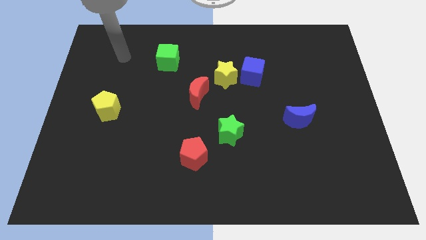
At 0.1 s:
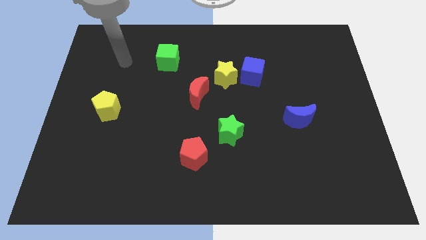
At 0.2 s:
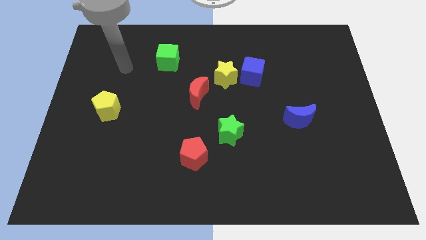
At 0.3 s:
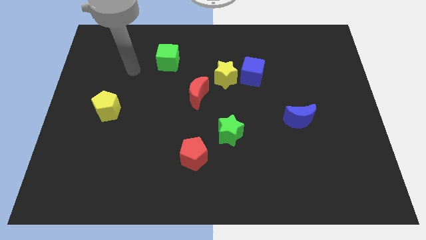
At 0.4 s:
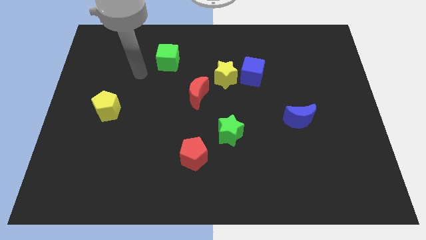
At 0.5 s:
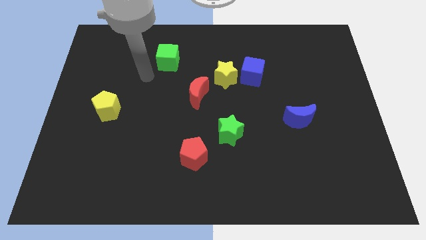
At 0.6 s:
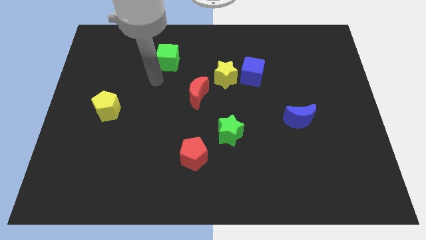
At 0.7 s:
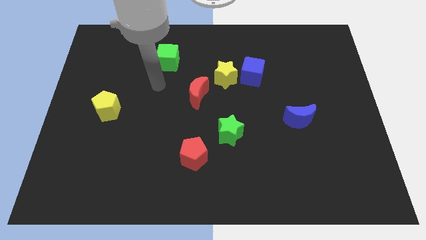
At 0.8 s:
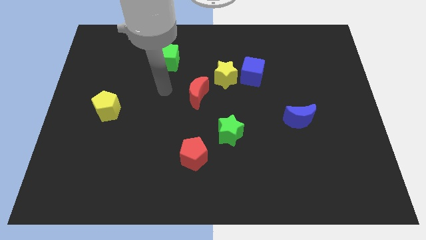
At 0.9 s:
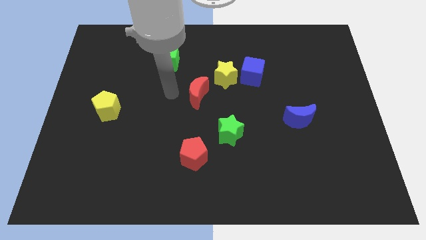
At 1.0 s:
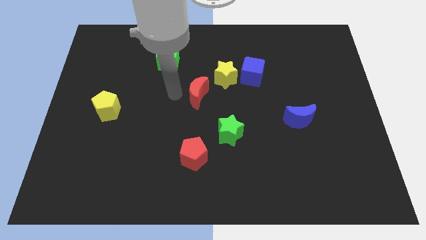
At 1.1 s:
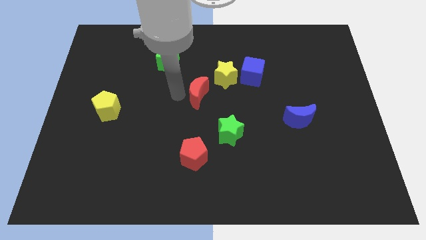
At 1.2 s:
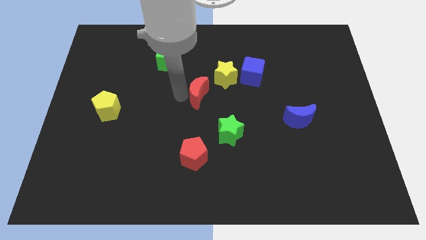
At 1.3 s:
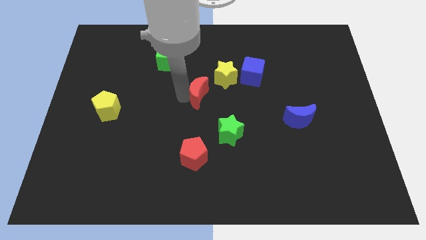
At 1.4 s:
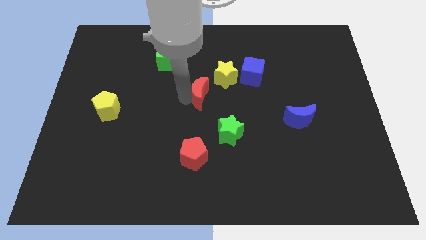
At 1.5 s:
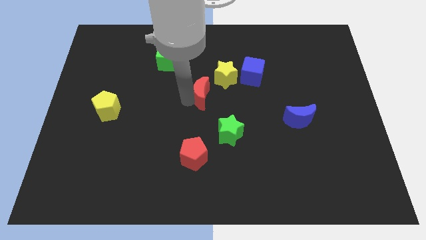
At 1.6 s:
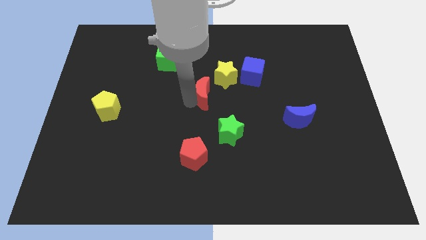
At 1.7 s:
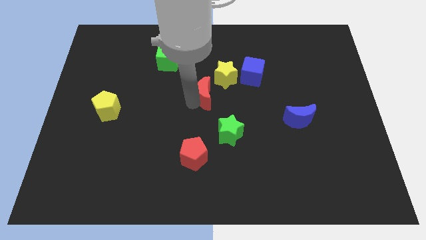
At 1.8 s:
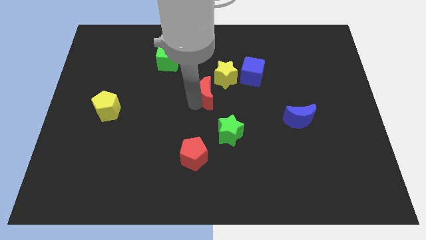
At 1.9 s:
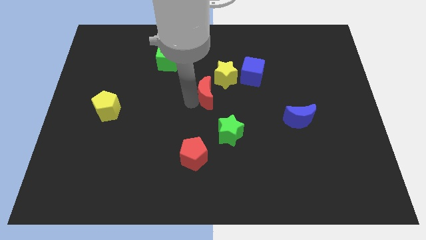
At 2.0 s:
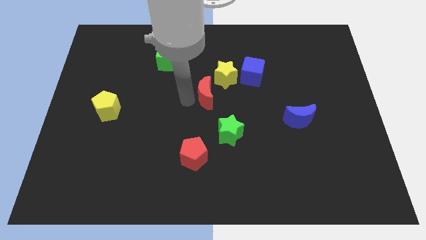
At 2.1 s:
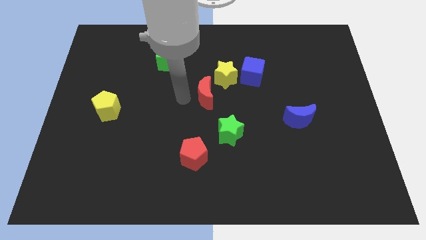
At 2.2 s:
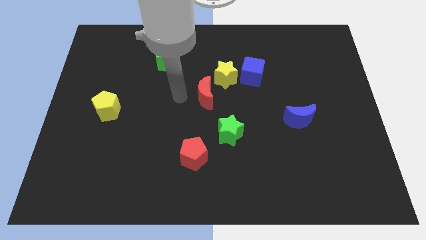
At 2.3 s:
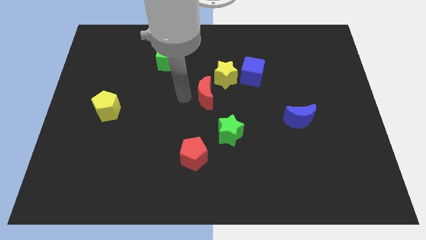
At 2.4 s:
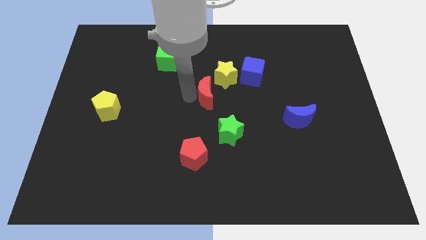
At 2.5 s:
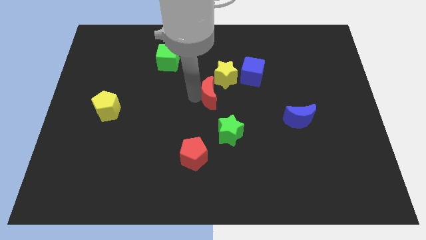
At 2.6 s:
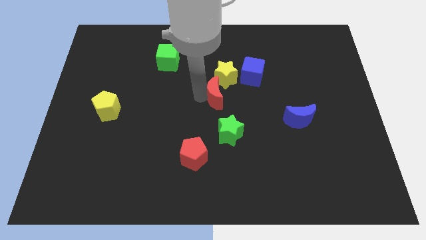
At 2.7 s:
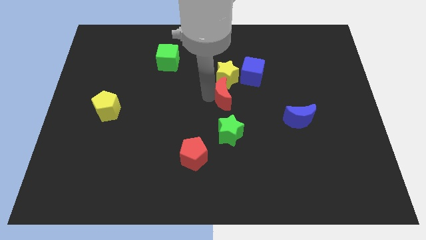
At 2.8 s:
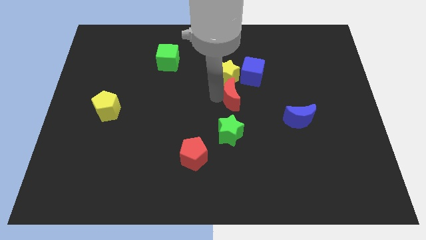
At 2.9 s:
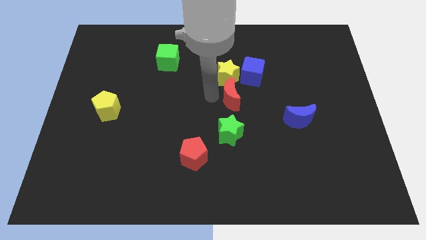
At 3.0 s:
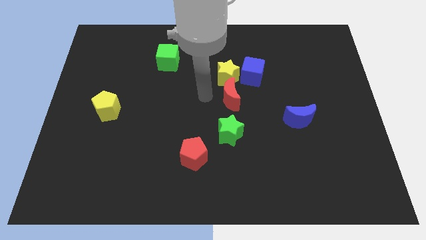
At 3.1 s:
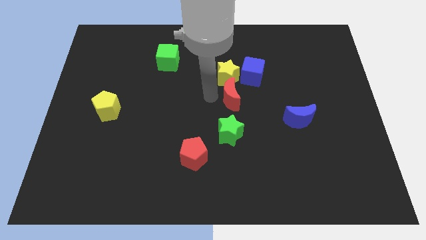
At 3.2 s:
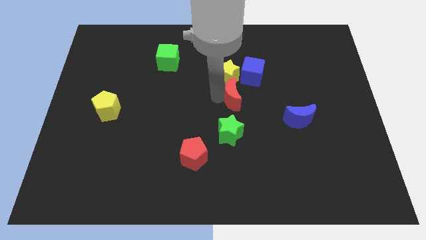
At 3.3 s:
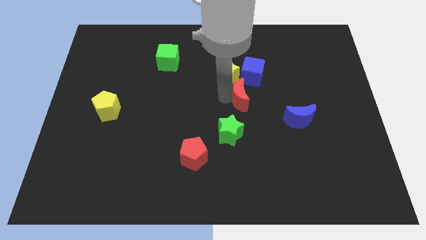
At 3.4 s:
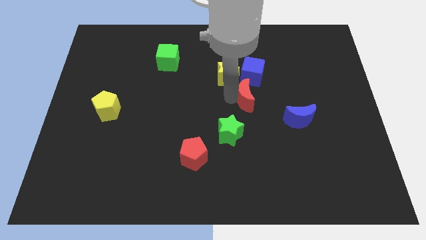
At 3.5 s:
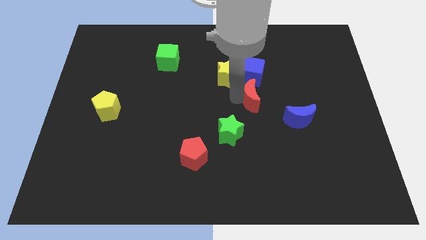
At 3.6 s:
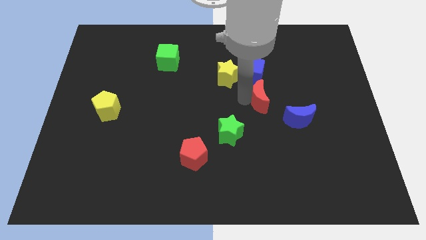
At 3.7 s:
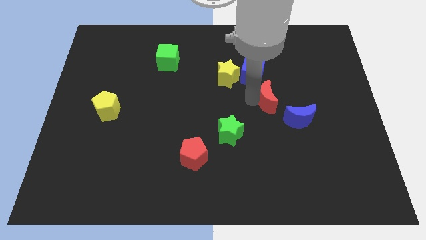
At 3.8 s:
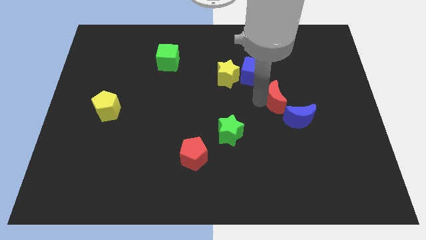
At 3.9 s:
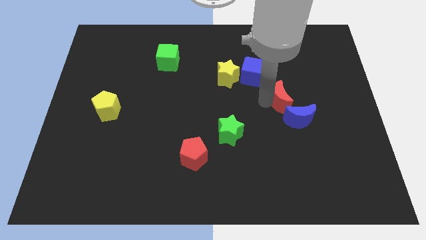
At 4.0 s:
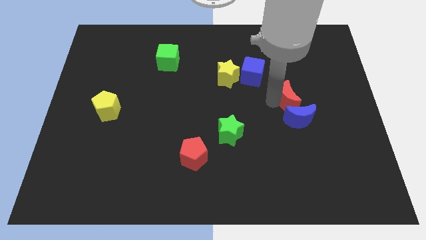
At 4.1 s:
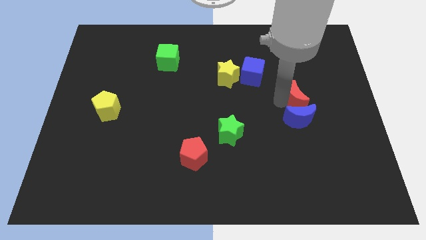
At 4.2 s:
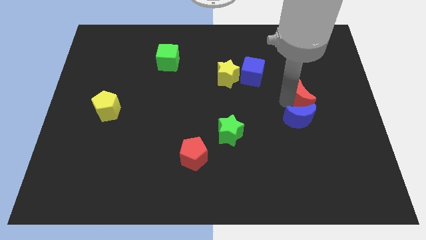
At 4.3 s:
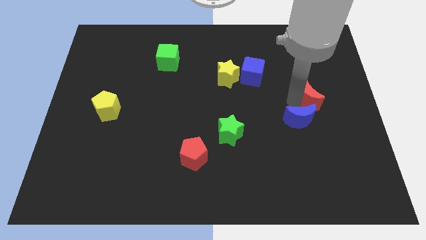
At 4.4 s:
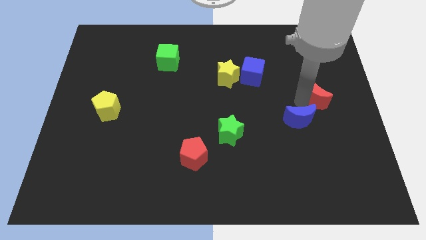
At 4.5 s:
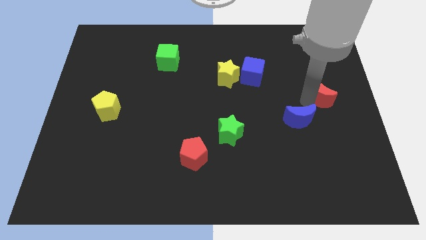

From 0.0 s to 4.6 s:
move the red moon to the right side

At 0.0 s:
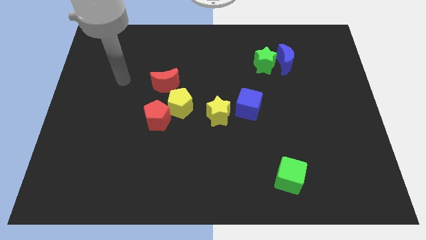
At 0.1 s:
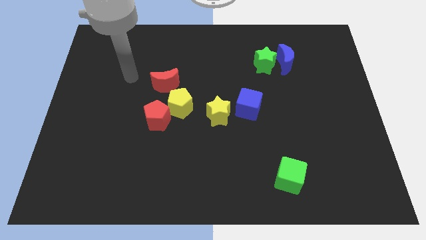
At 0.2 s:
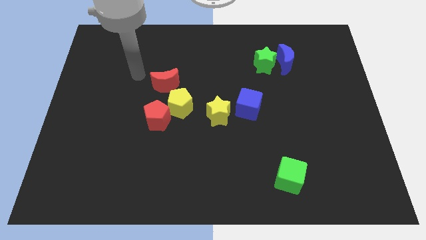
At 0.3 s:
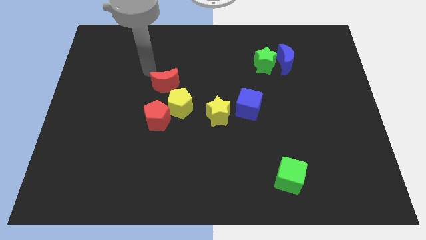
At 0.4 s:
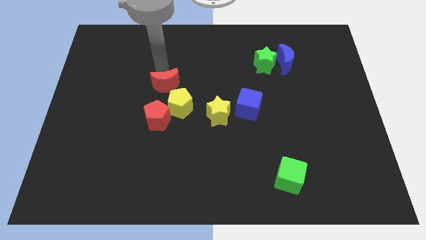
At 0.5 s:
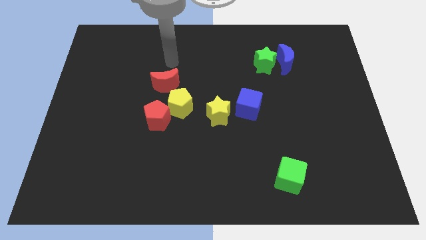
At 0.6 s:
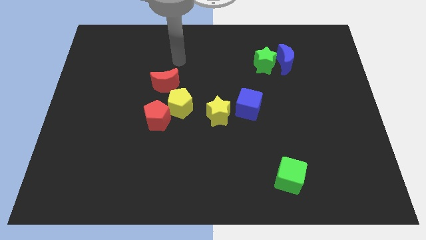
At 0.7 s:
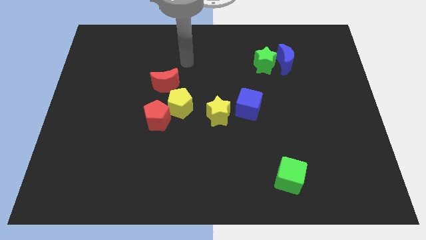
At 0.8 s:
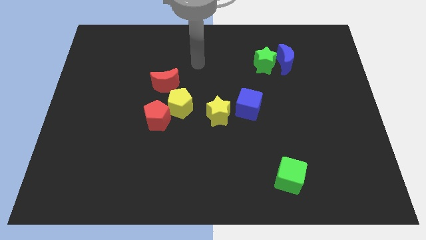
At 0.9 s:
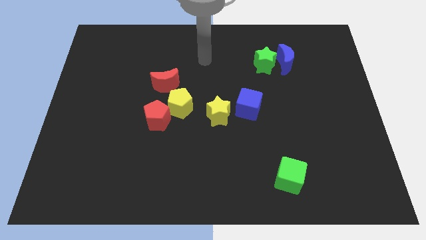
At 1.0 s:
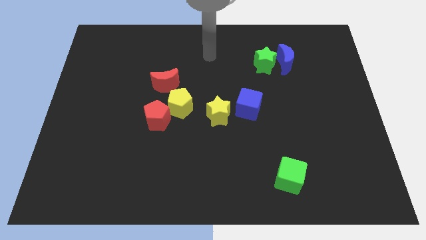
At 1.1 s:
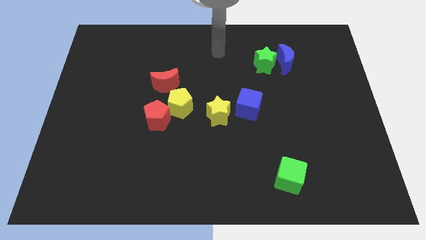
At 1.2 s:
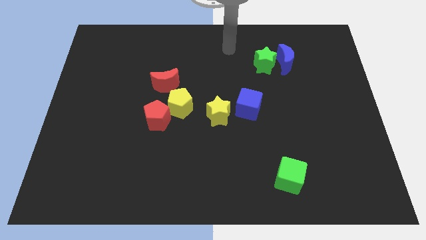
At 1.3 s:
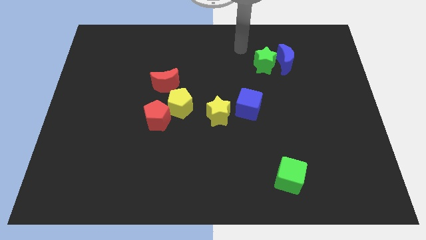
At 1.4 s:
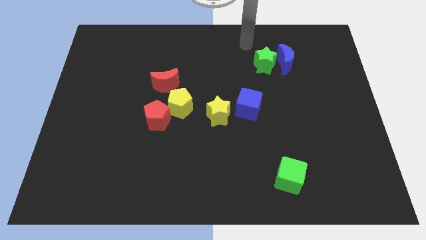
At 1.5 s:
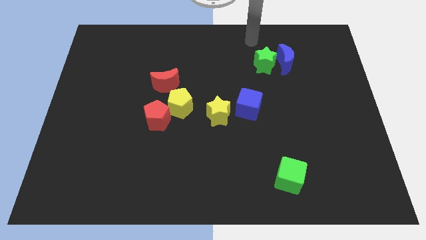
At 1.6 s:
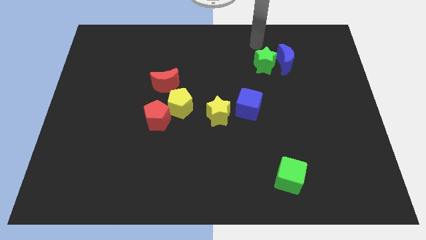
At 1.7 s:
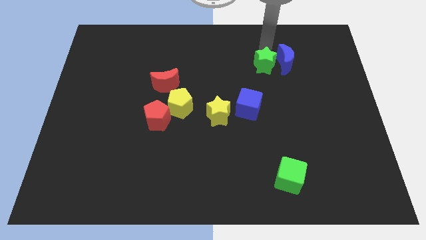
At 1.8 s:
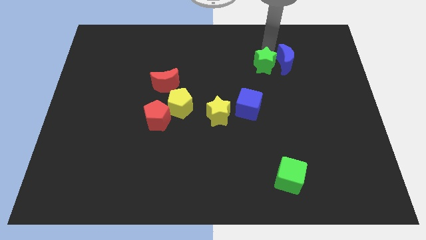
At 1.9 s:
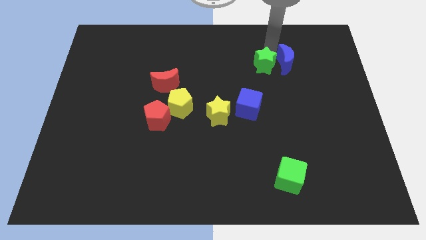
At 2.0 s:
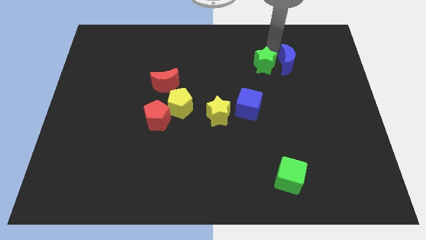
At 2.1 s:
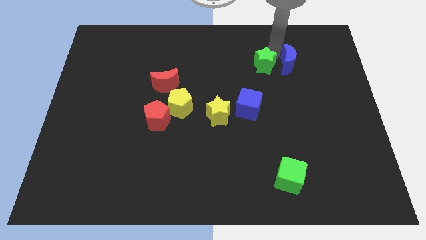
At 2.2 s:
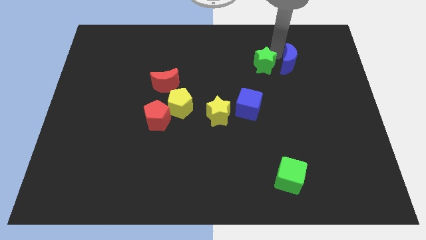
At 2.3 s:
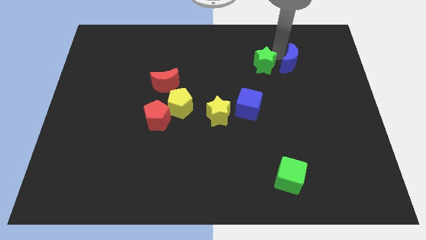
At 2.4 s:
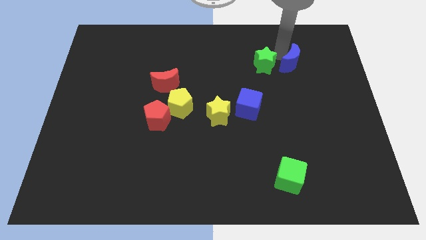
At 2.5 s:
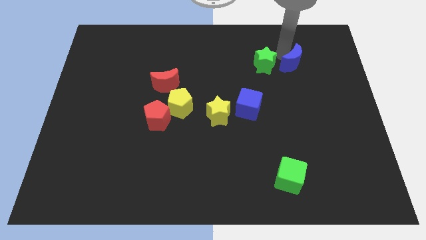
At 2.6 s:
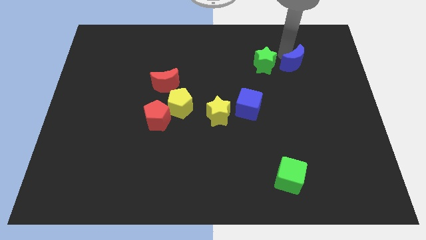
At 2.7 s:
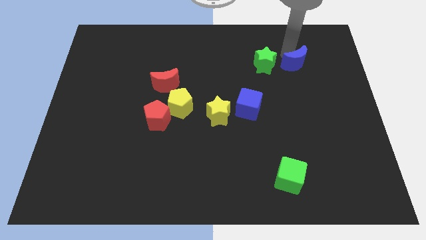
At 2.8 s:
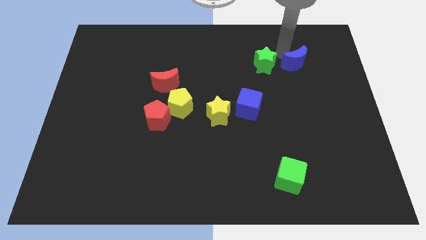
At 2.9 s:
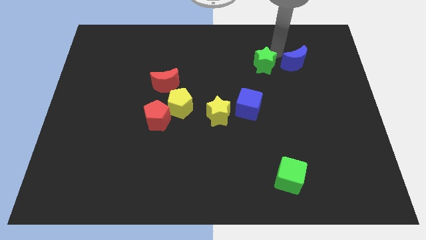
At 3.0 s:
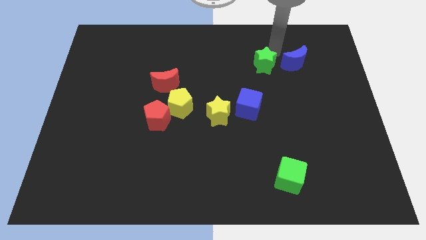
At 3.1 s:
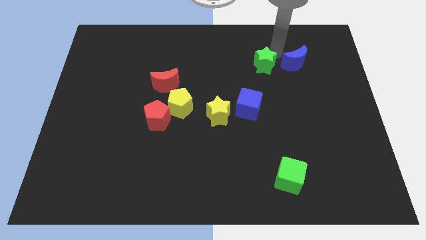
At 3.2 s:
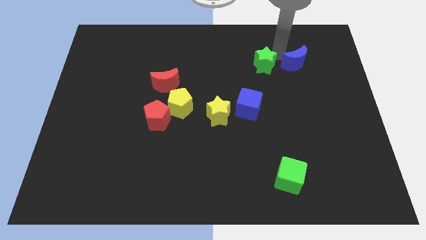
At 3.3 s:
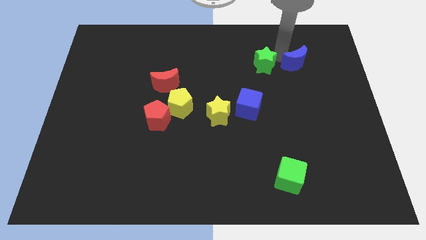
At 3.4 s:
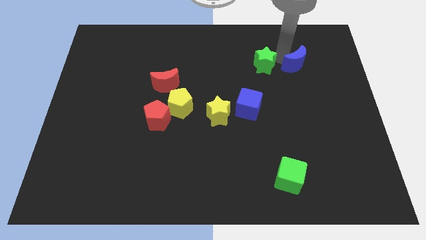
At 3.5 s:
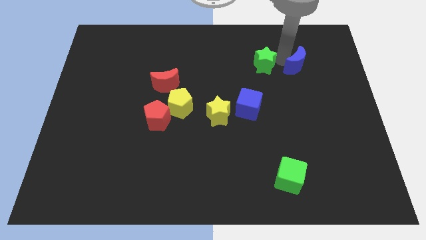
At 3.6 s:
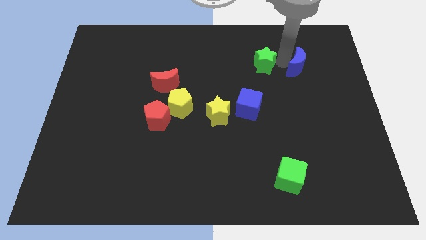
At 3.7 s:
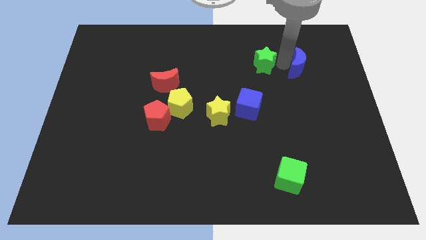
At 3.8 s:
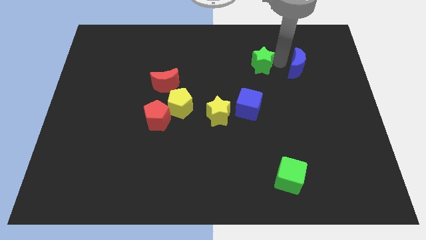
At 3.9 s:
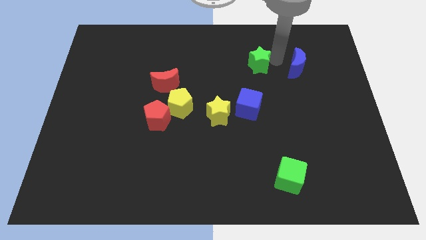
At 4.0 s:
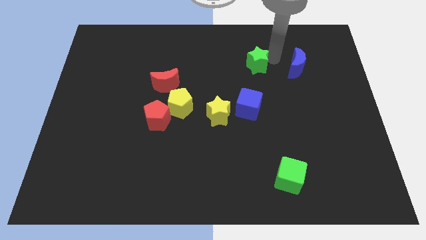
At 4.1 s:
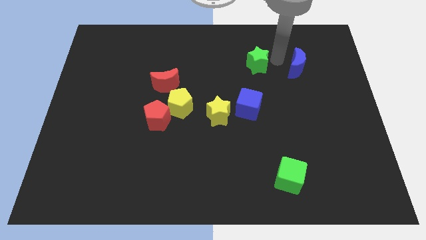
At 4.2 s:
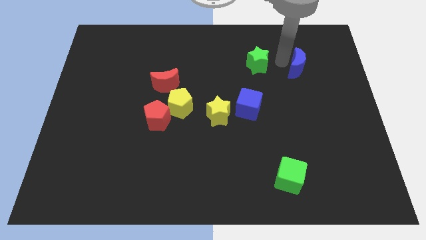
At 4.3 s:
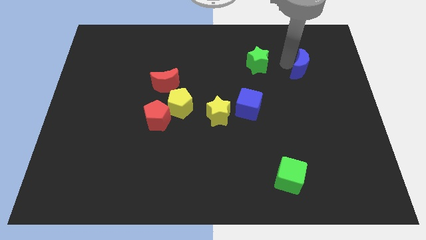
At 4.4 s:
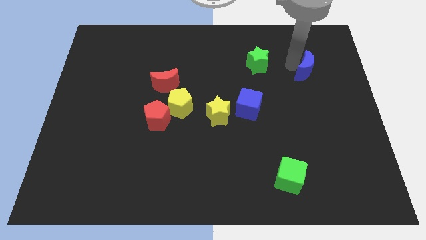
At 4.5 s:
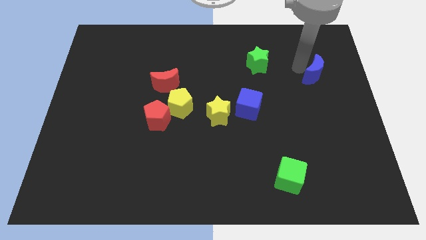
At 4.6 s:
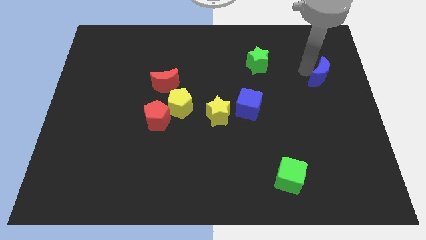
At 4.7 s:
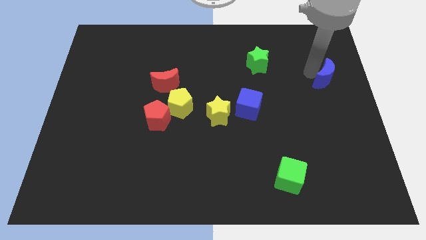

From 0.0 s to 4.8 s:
put the blue moon to the right side
